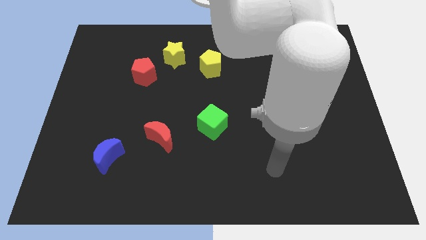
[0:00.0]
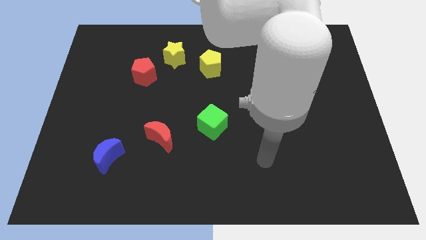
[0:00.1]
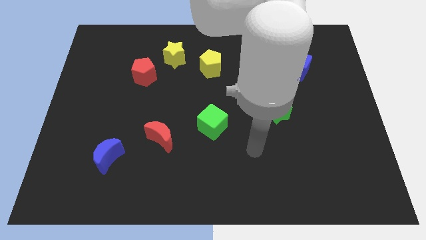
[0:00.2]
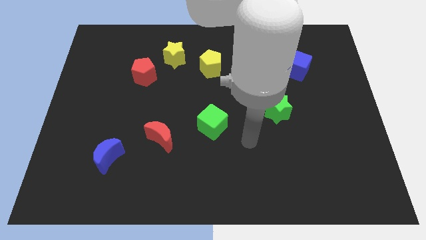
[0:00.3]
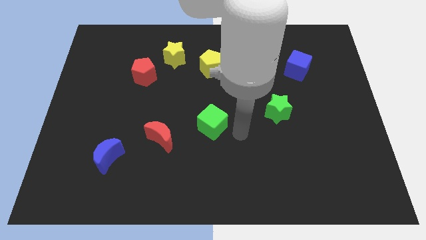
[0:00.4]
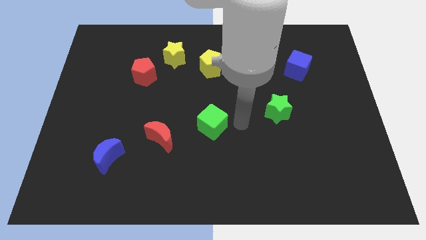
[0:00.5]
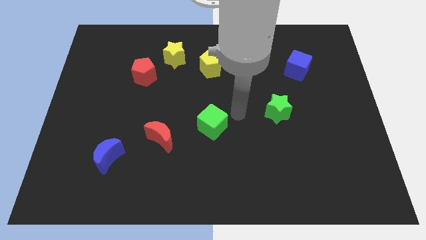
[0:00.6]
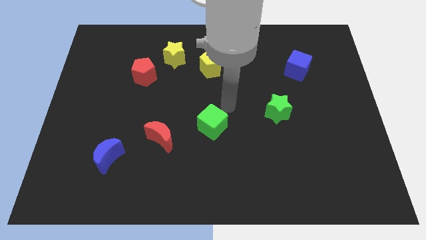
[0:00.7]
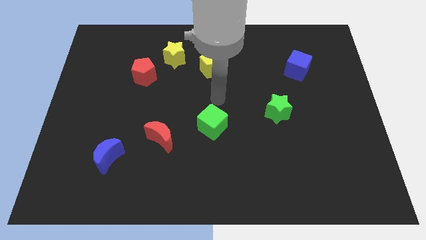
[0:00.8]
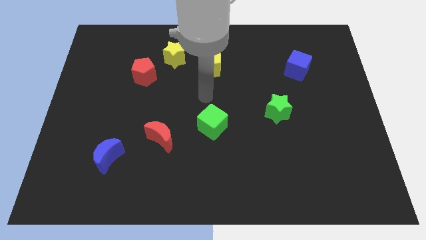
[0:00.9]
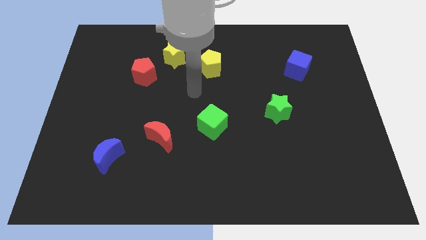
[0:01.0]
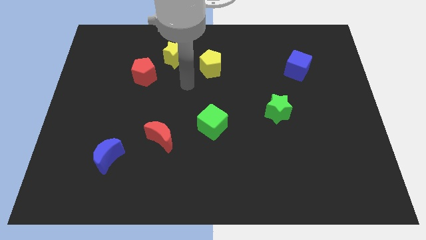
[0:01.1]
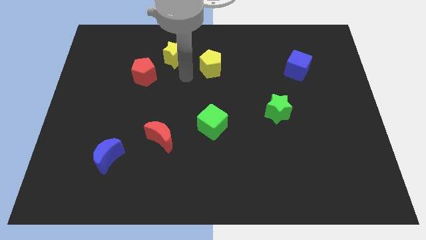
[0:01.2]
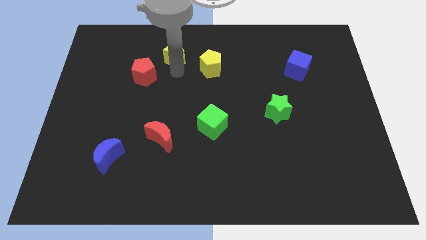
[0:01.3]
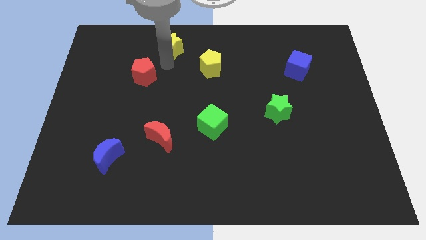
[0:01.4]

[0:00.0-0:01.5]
separate the red pentagon from the yellow star

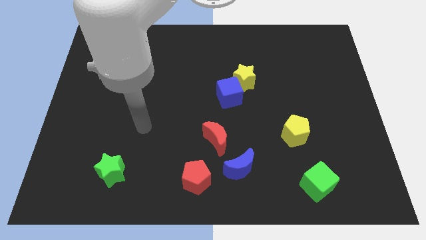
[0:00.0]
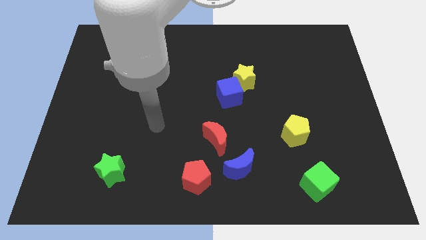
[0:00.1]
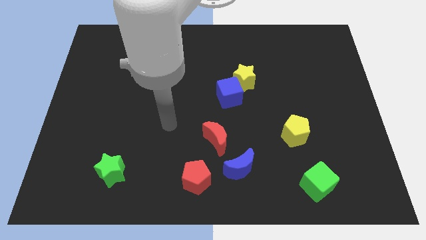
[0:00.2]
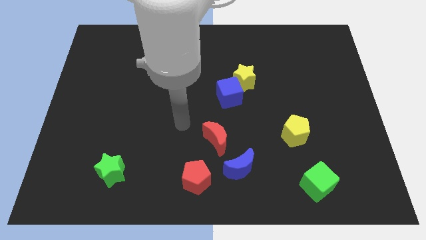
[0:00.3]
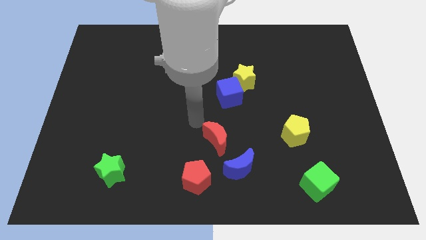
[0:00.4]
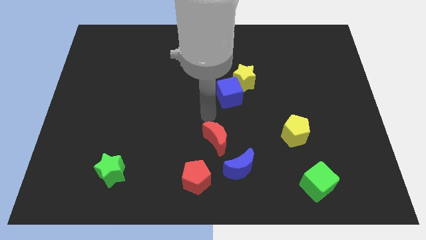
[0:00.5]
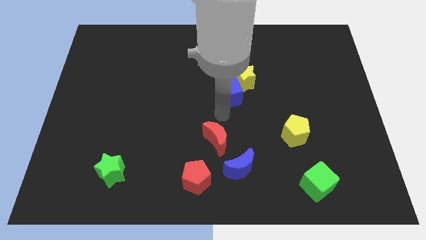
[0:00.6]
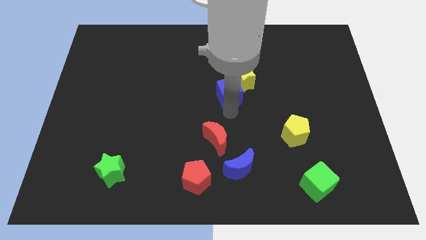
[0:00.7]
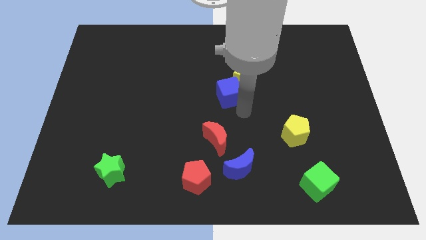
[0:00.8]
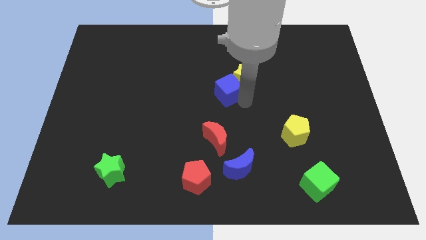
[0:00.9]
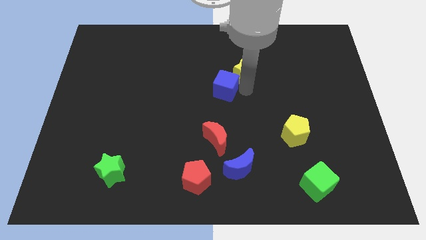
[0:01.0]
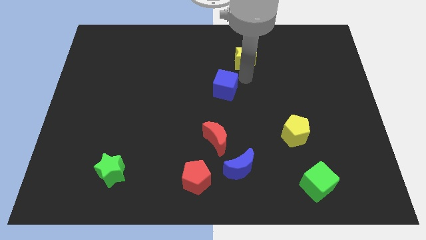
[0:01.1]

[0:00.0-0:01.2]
move the blue cube away from the yellow star

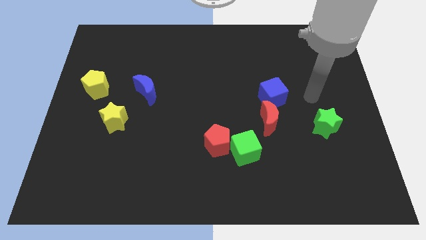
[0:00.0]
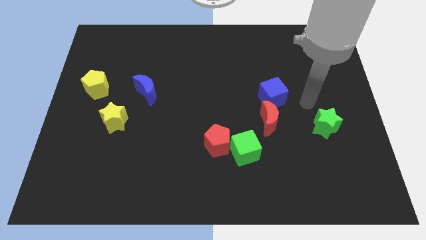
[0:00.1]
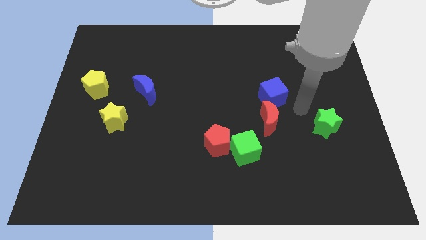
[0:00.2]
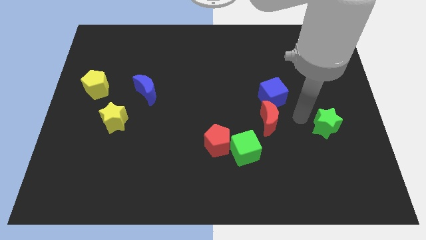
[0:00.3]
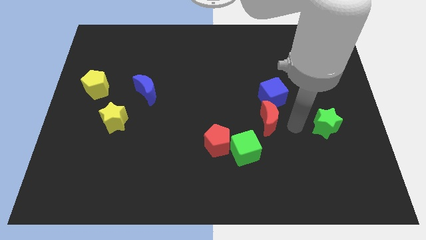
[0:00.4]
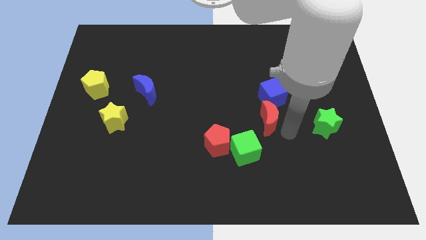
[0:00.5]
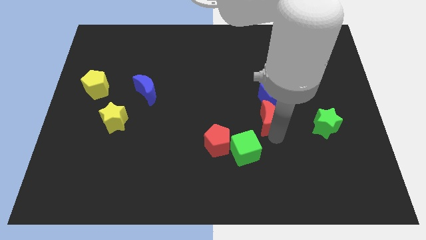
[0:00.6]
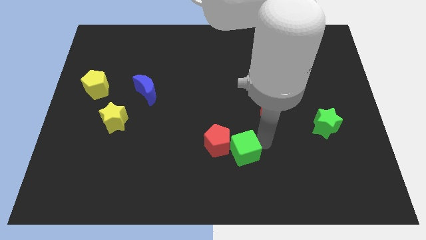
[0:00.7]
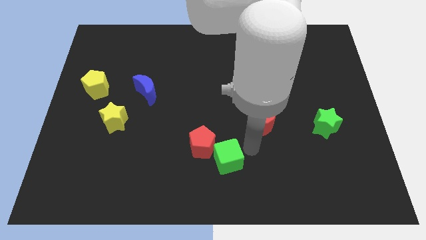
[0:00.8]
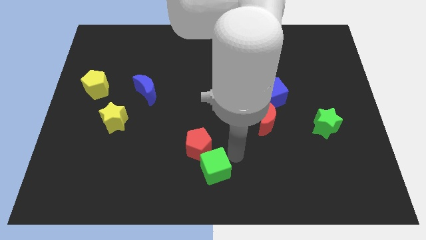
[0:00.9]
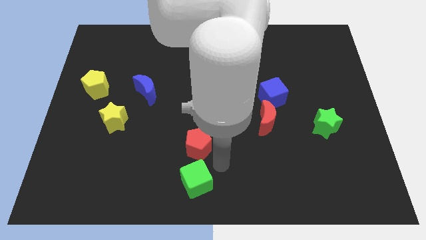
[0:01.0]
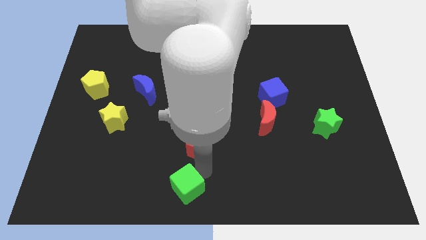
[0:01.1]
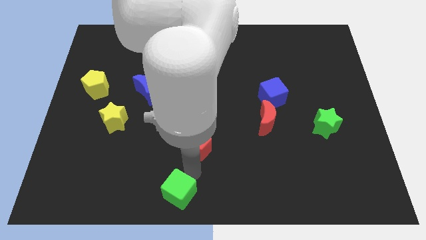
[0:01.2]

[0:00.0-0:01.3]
pull the red pentagon apart from the green cube

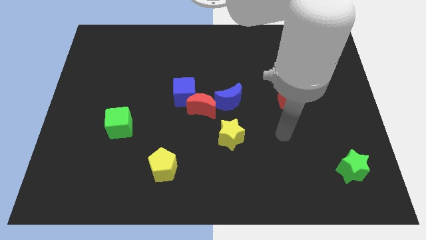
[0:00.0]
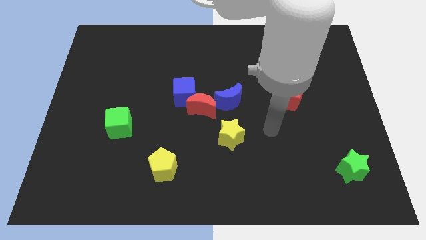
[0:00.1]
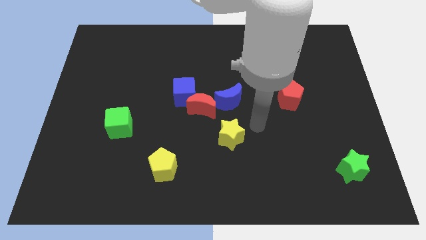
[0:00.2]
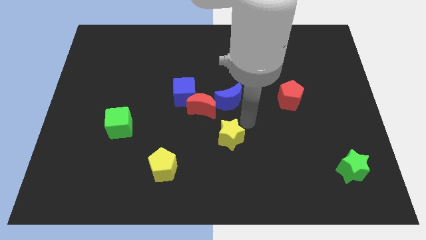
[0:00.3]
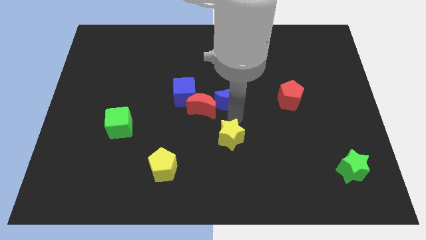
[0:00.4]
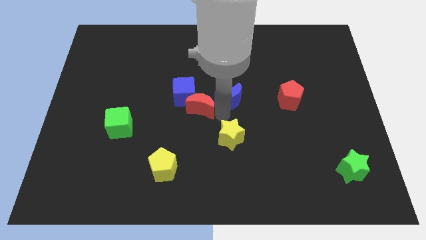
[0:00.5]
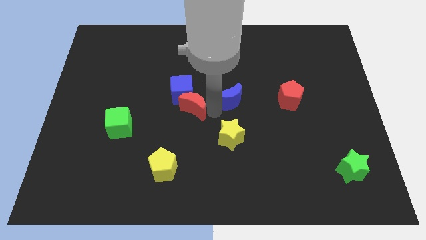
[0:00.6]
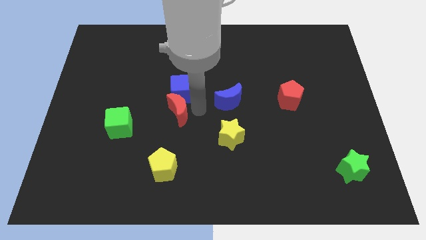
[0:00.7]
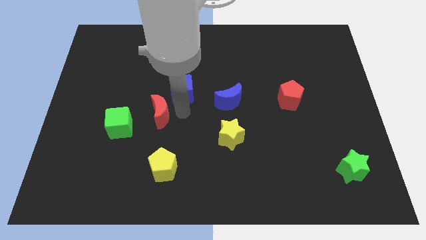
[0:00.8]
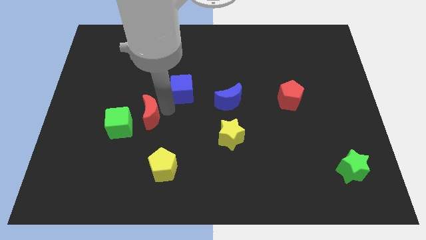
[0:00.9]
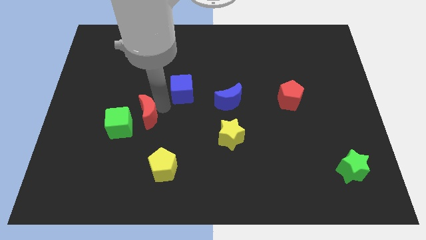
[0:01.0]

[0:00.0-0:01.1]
separate the blue cube from the red moon

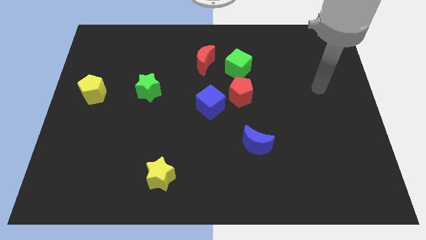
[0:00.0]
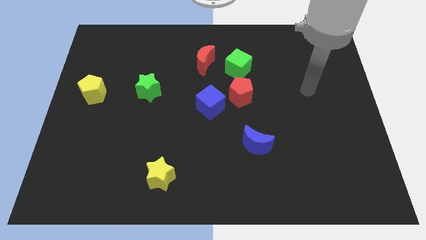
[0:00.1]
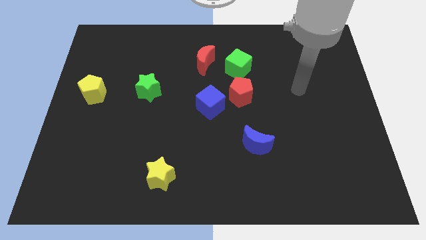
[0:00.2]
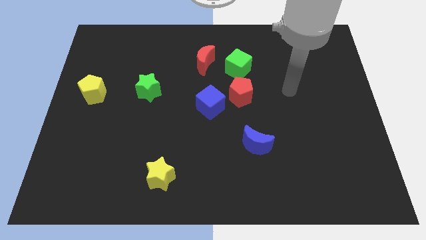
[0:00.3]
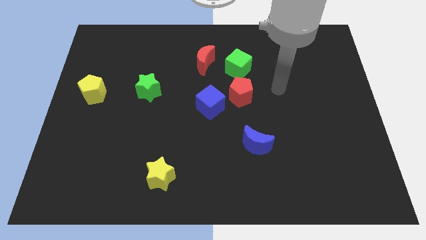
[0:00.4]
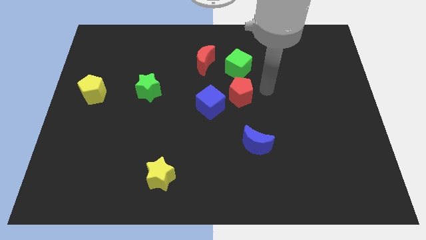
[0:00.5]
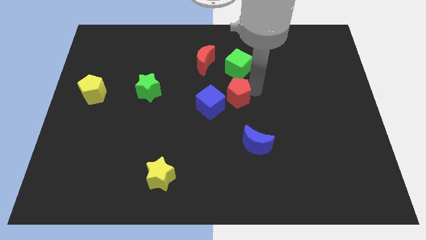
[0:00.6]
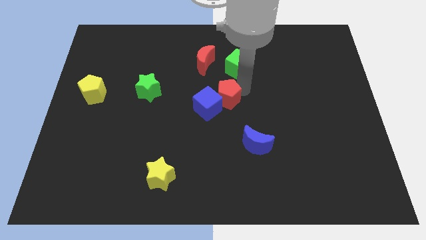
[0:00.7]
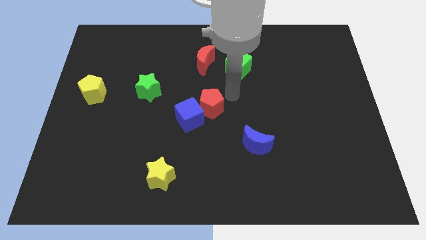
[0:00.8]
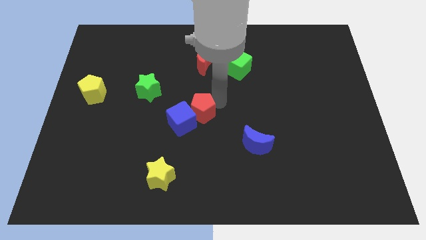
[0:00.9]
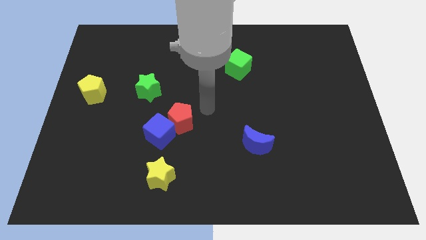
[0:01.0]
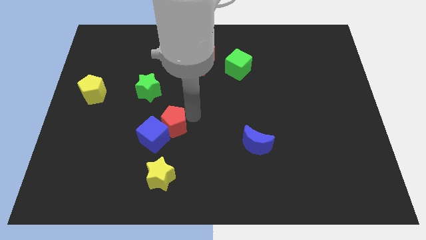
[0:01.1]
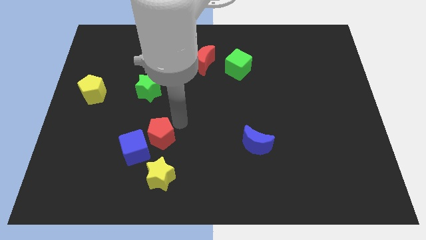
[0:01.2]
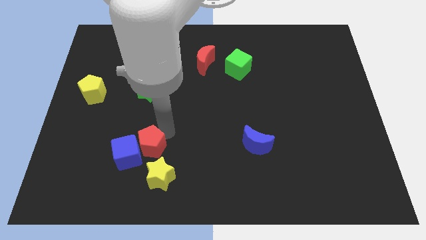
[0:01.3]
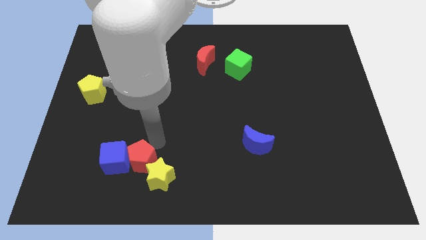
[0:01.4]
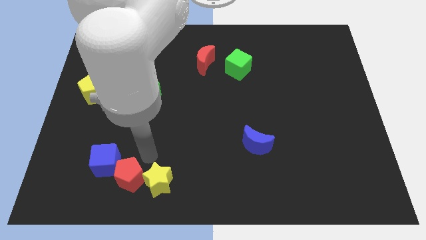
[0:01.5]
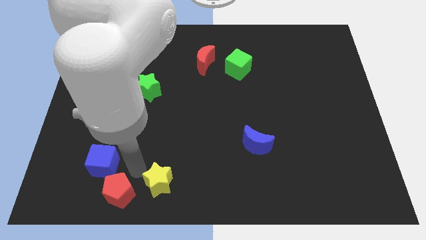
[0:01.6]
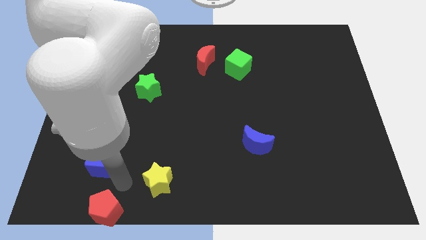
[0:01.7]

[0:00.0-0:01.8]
move the blue cube away from the red pentagon

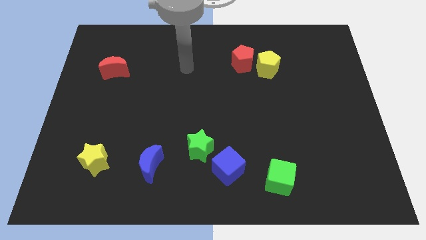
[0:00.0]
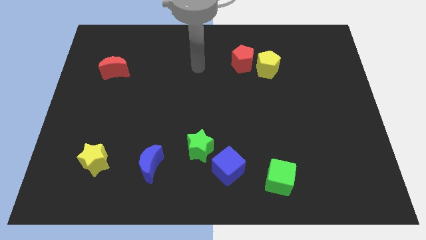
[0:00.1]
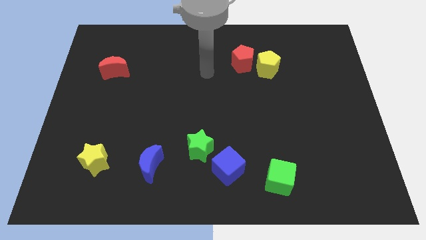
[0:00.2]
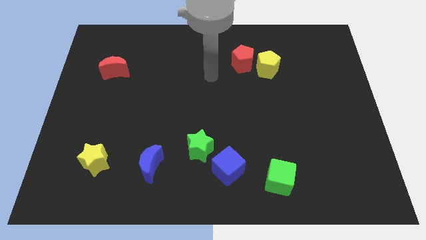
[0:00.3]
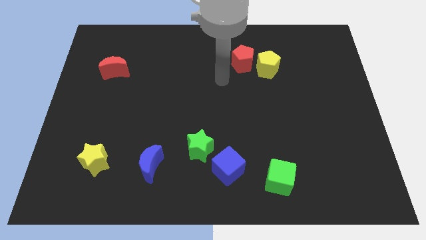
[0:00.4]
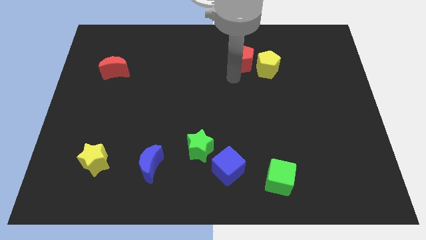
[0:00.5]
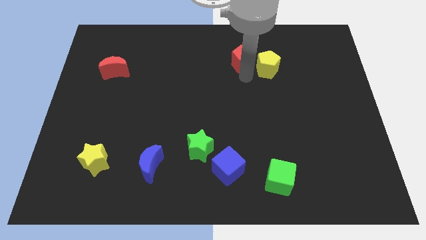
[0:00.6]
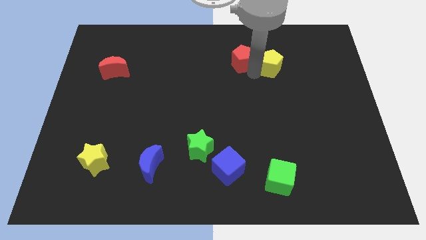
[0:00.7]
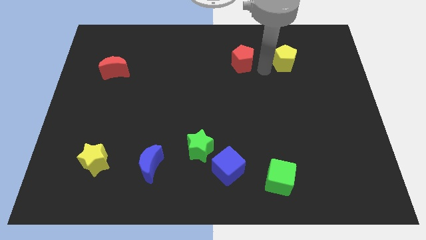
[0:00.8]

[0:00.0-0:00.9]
separate the red pentagon from the yellow pentagon

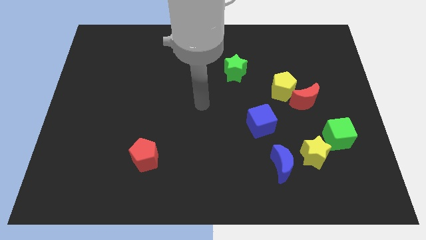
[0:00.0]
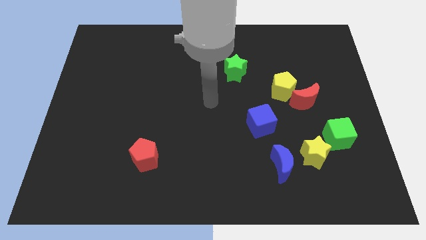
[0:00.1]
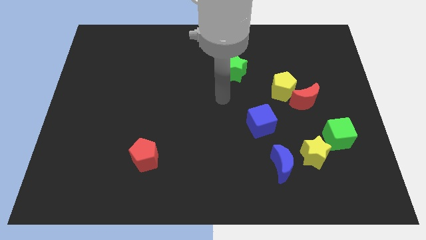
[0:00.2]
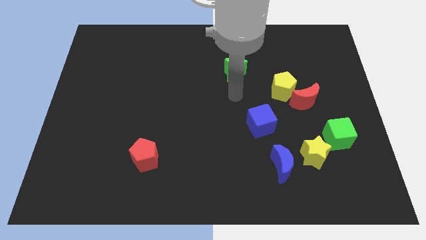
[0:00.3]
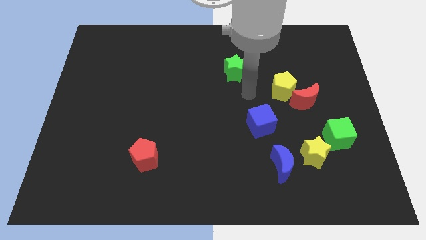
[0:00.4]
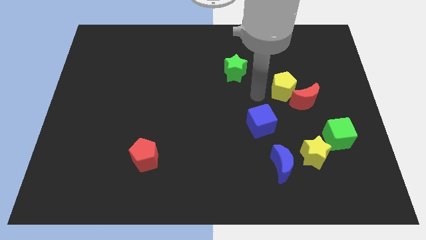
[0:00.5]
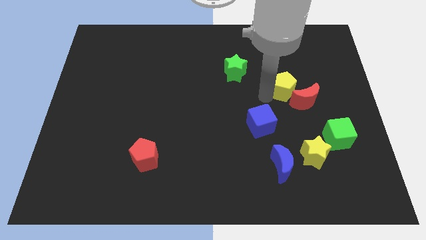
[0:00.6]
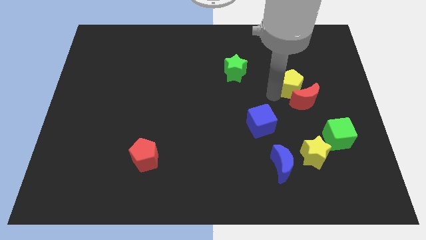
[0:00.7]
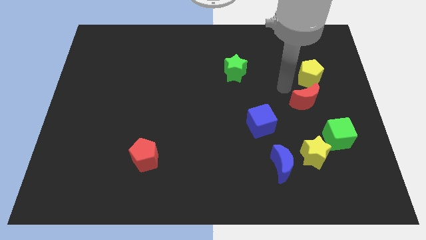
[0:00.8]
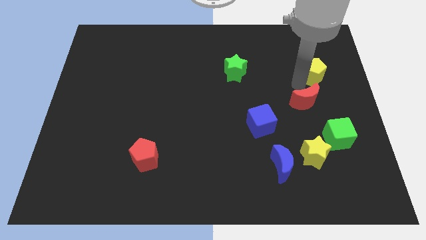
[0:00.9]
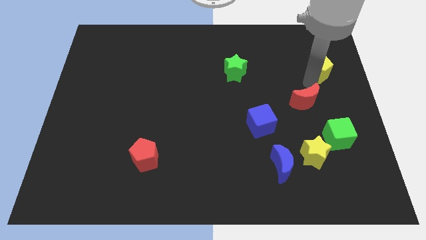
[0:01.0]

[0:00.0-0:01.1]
move the red moon away from the yellow pentagon

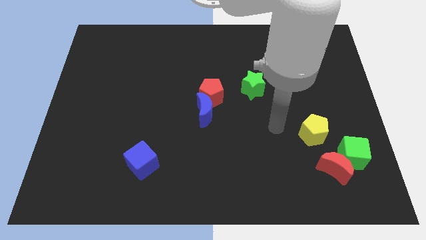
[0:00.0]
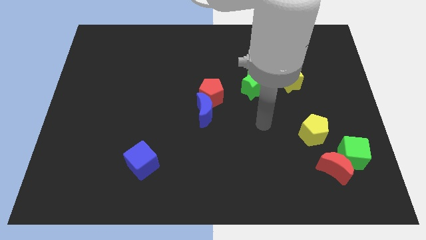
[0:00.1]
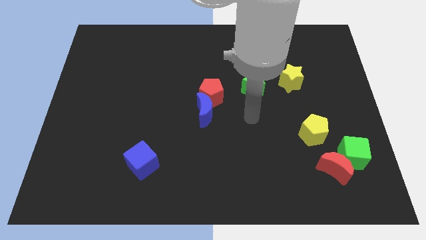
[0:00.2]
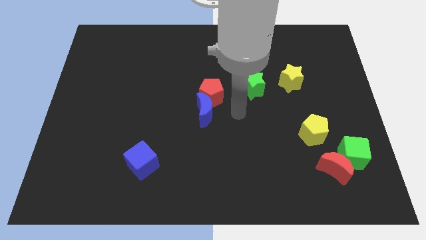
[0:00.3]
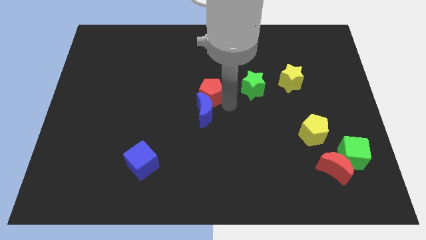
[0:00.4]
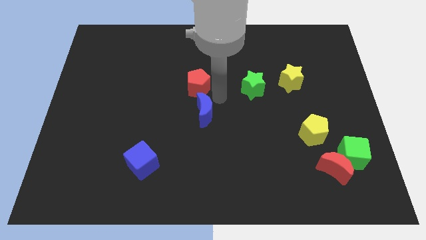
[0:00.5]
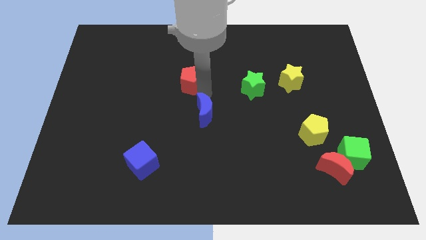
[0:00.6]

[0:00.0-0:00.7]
move the blue moon away from the red pentagon
